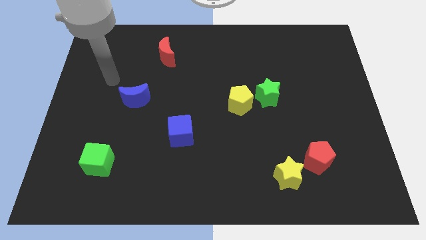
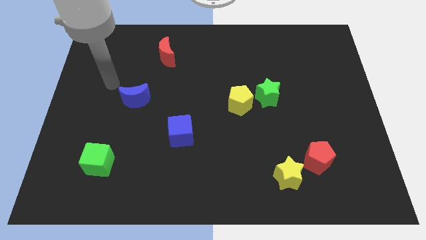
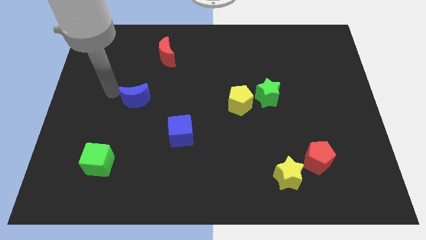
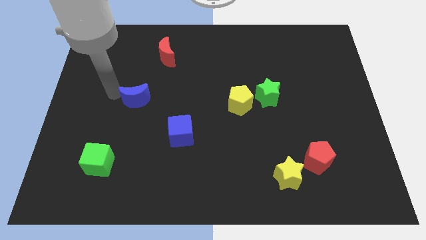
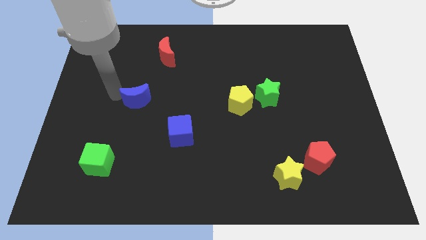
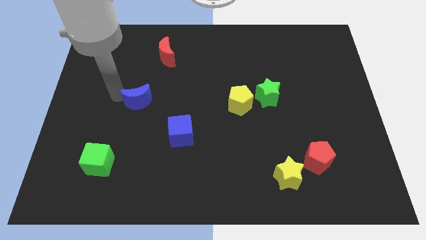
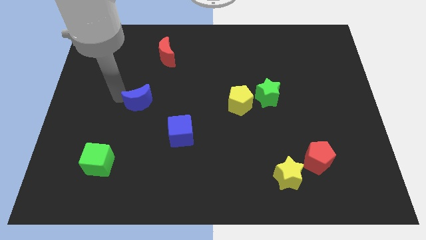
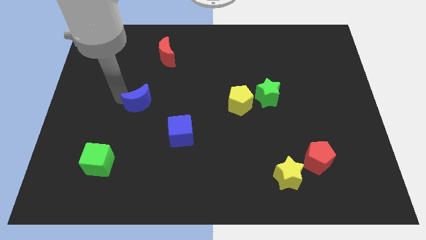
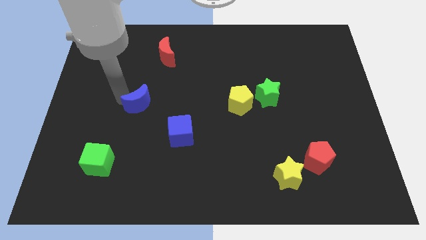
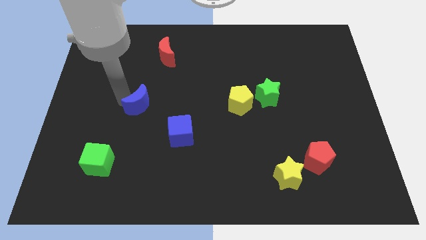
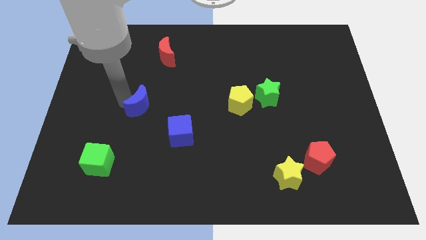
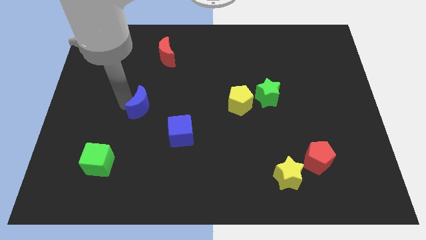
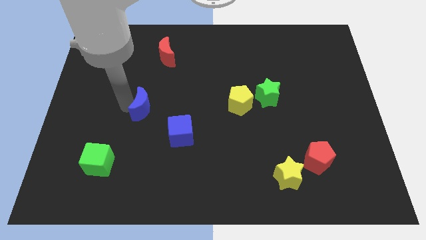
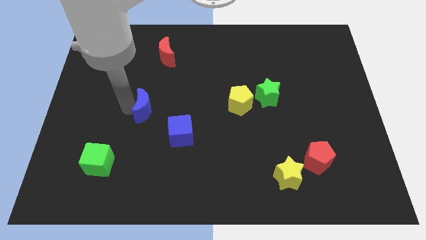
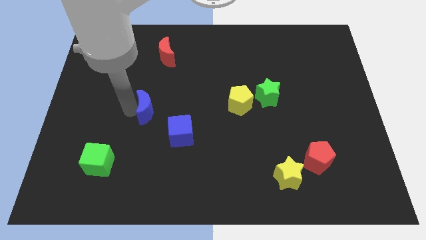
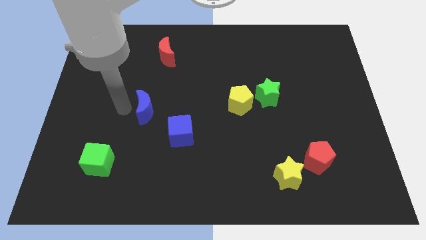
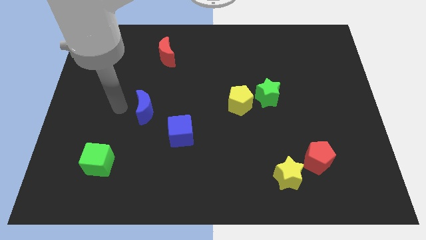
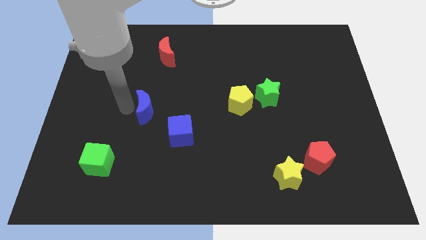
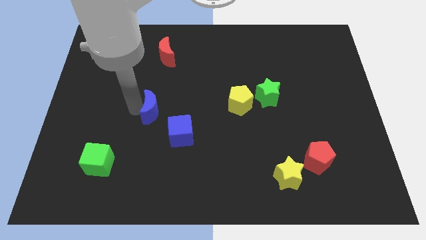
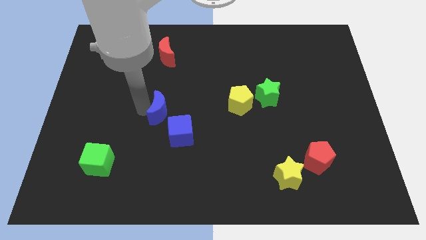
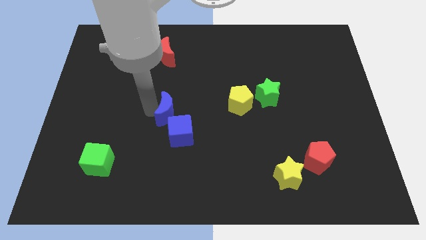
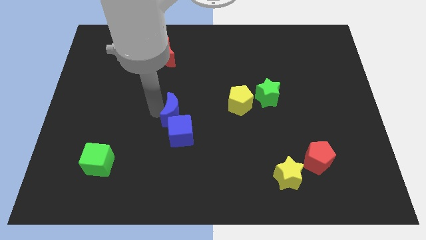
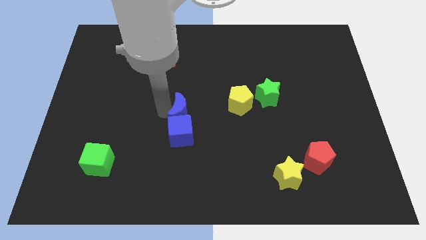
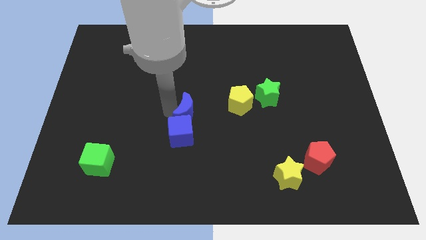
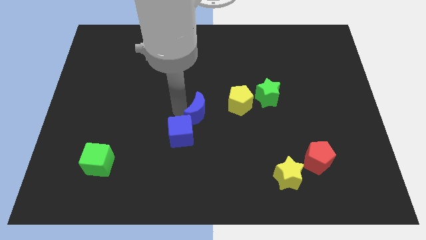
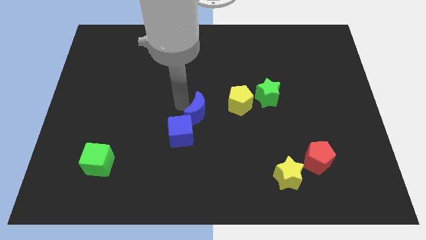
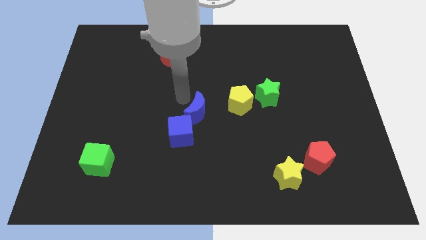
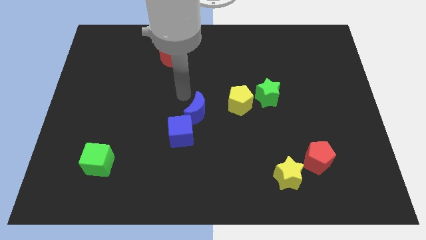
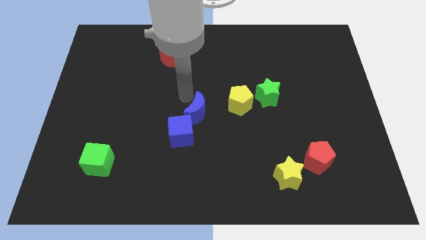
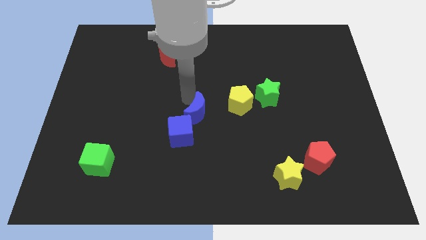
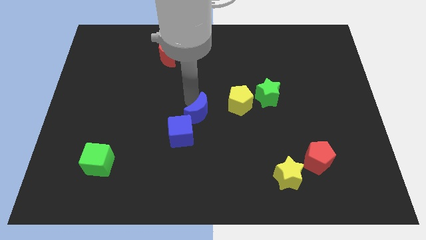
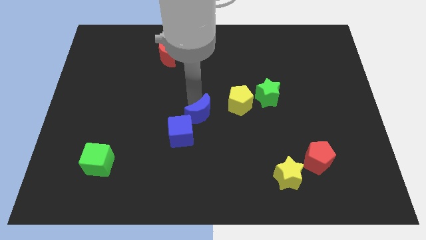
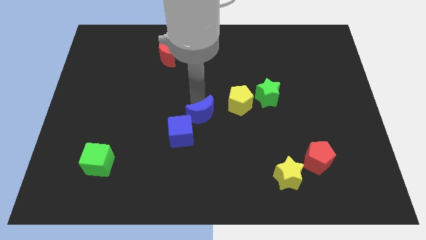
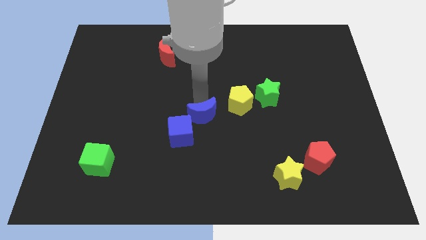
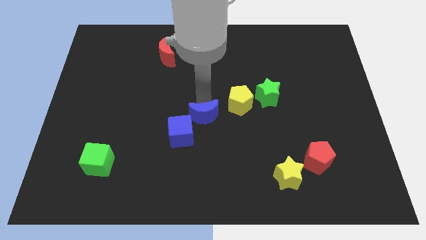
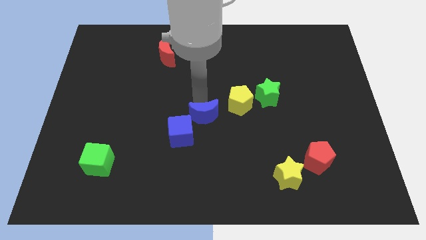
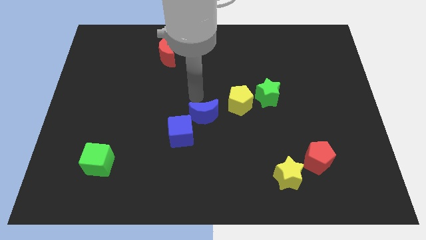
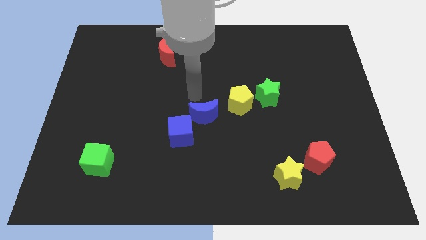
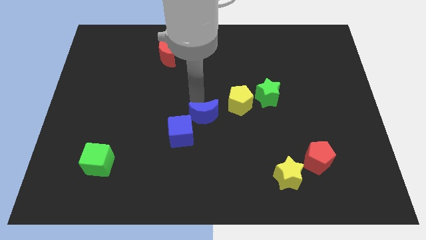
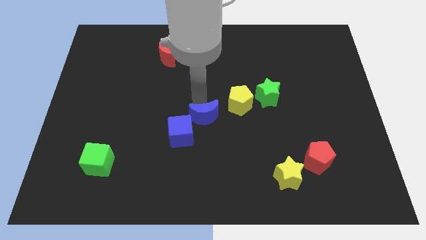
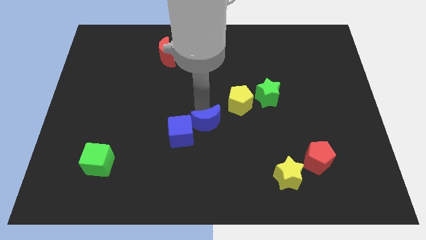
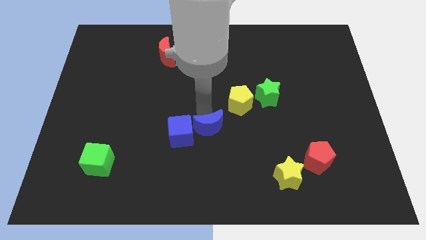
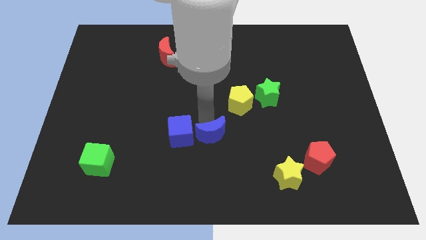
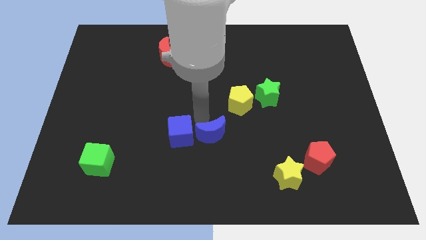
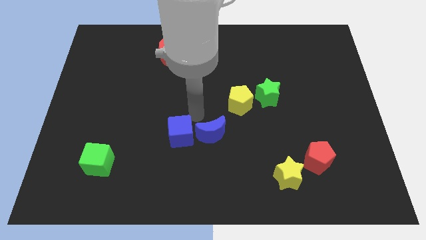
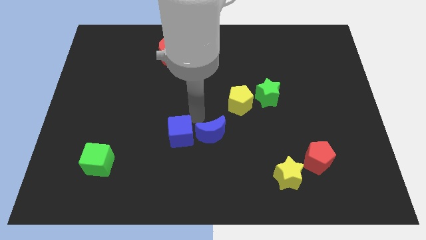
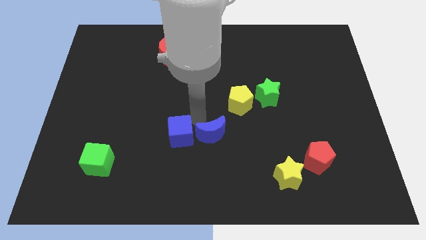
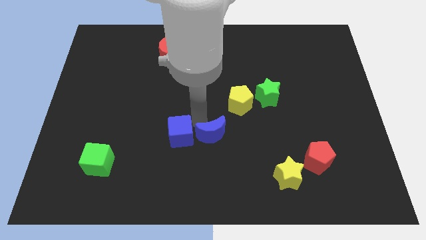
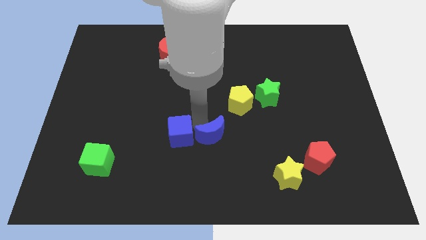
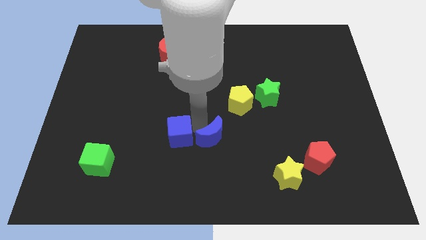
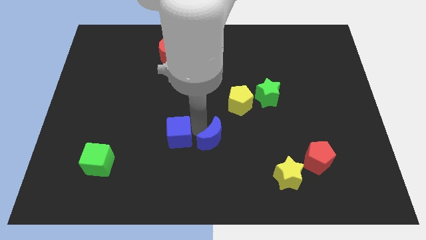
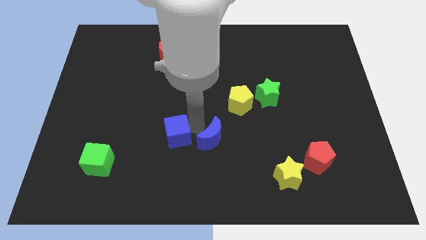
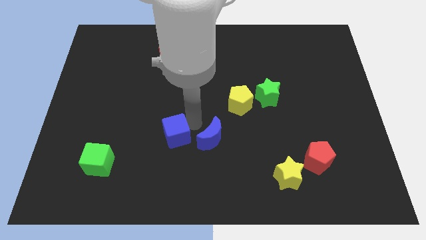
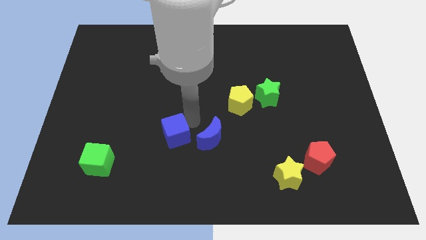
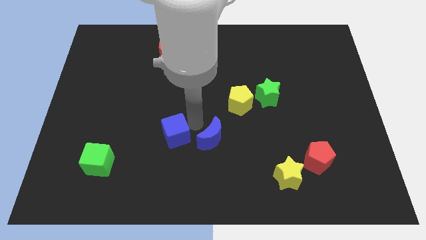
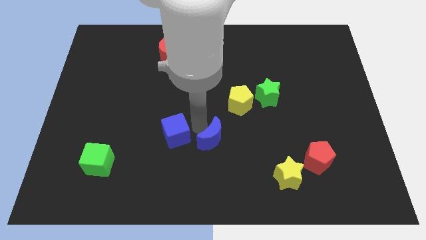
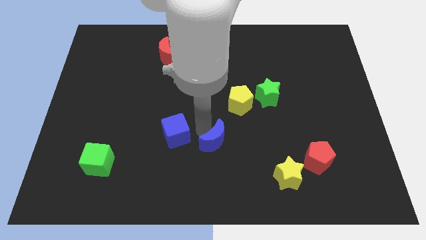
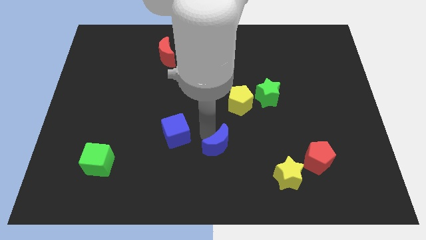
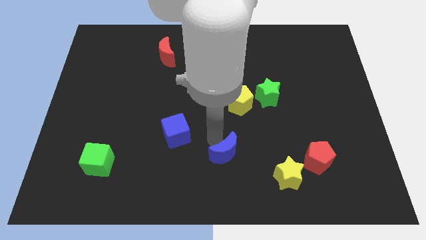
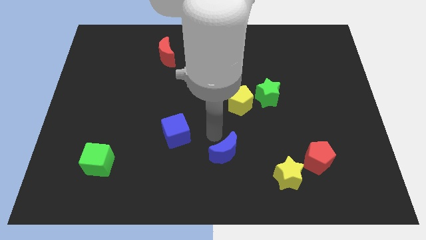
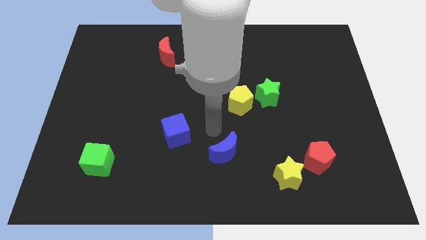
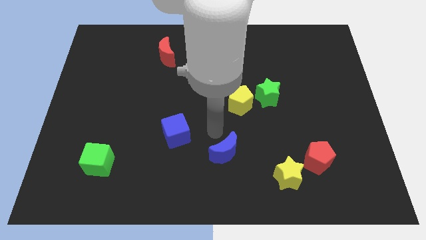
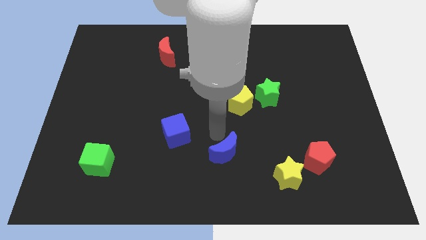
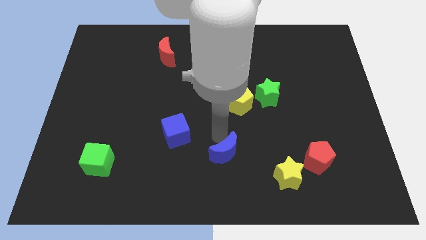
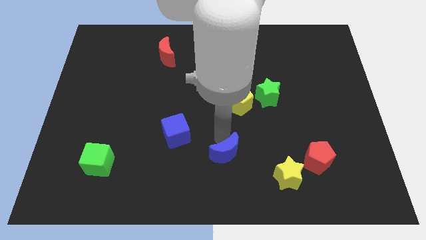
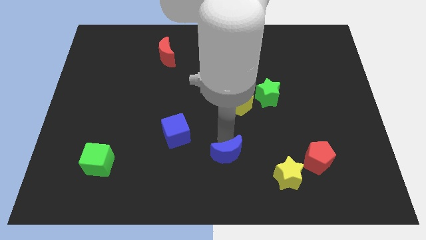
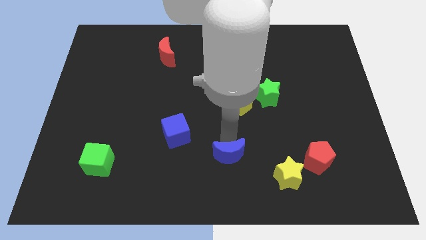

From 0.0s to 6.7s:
push the blue moon just left of the yellow star
